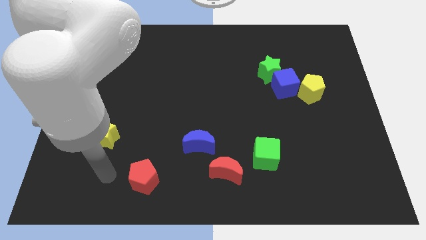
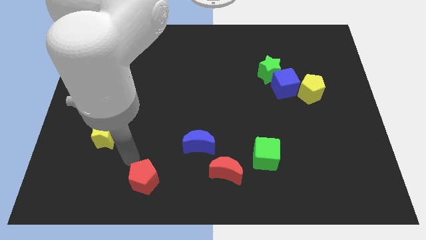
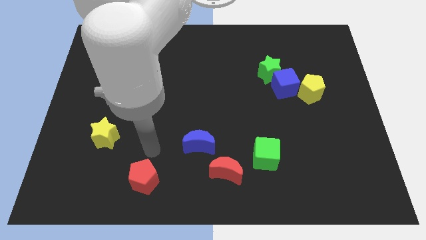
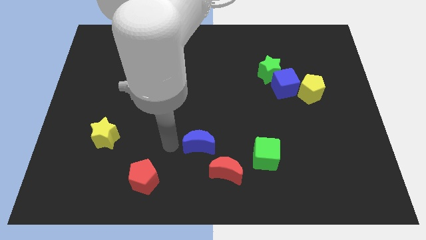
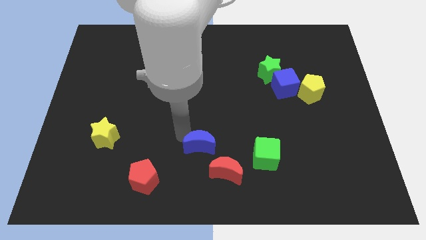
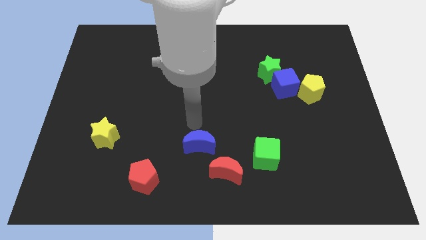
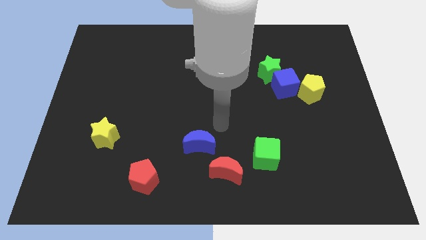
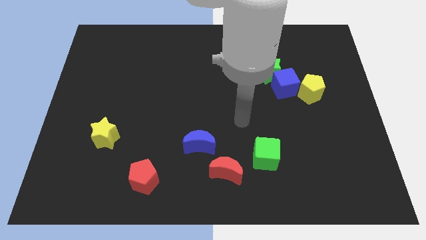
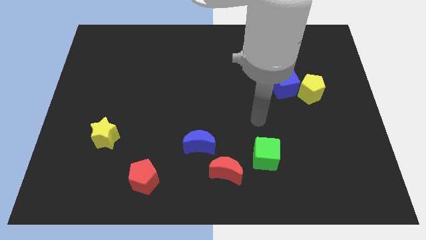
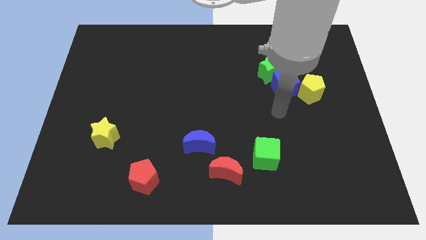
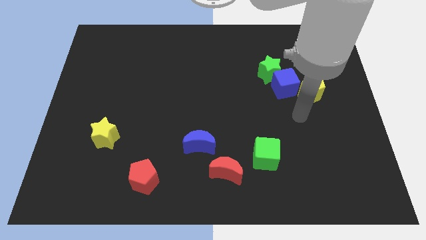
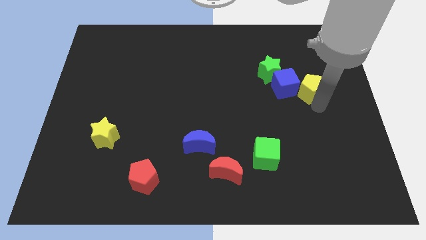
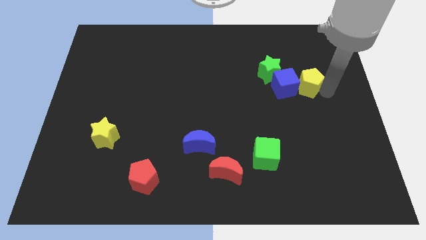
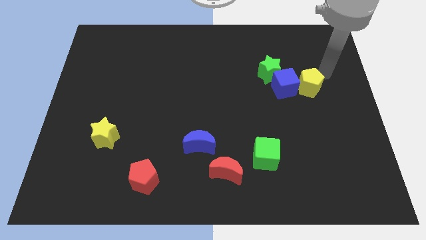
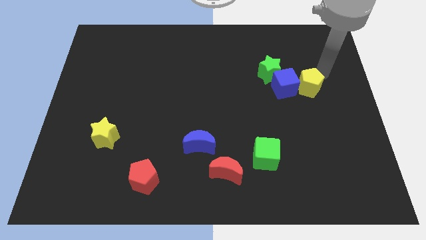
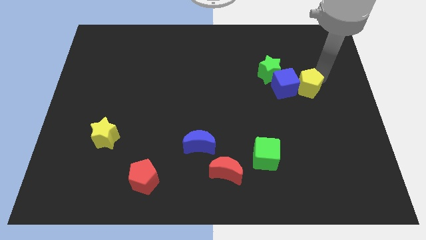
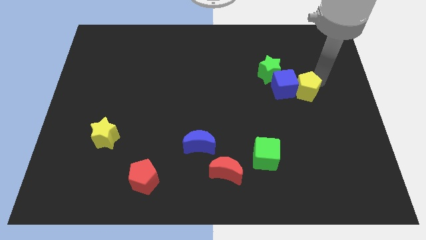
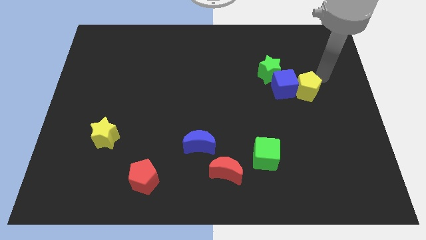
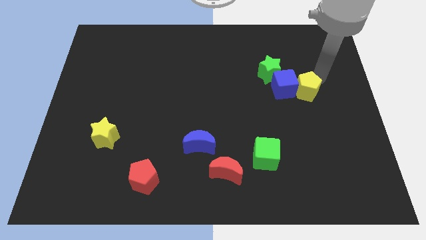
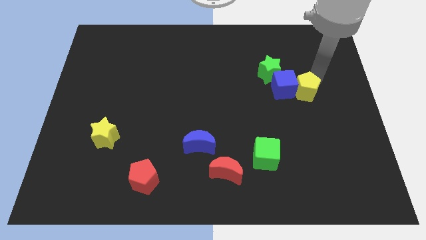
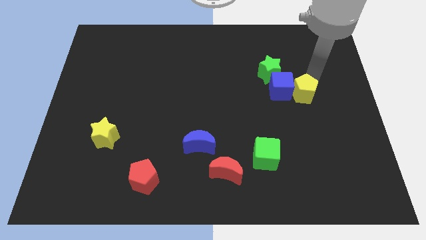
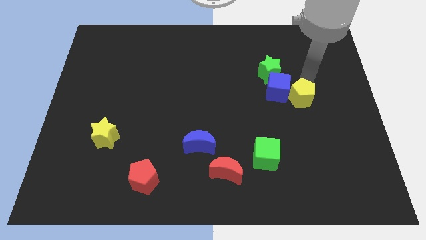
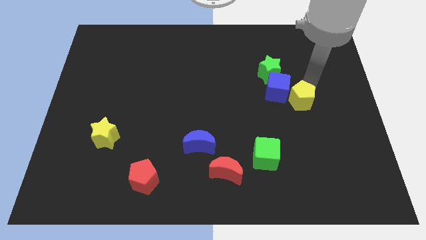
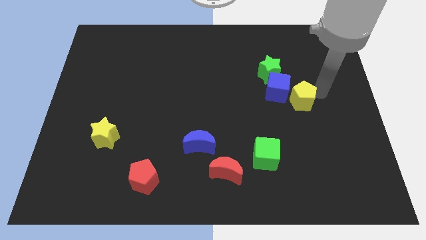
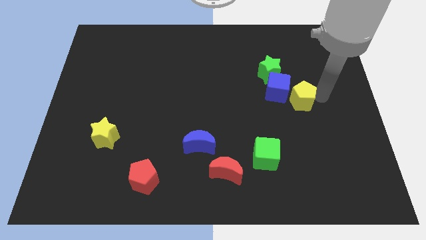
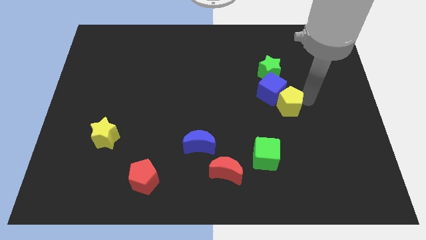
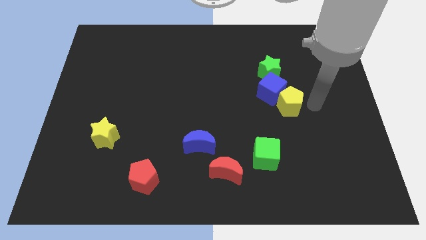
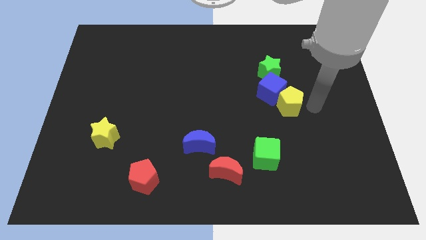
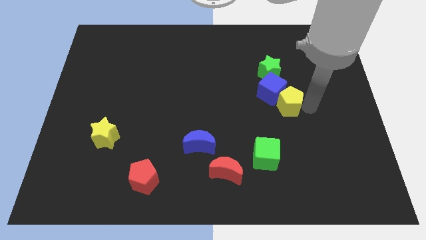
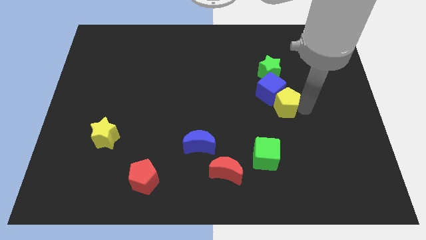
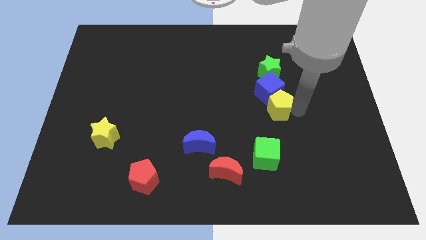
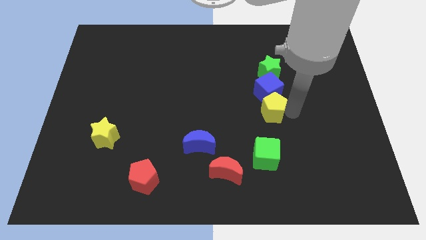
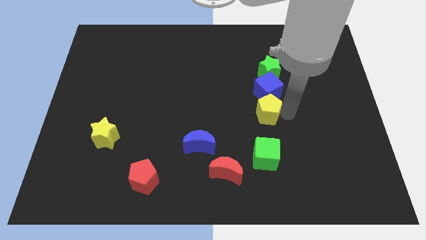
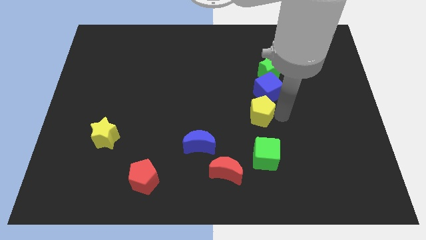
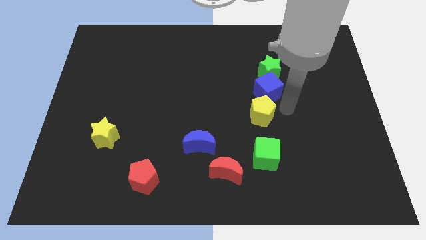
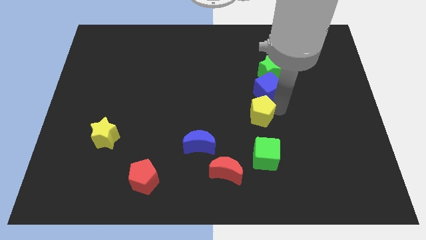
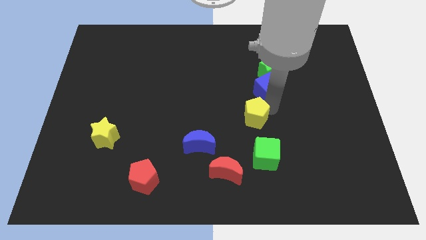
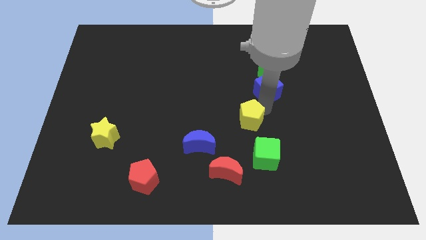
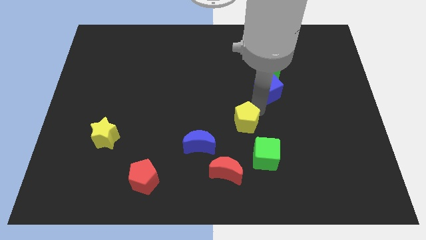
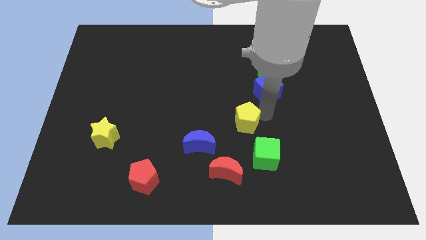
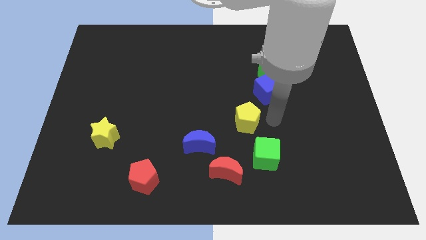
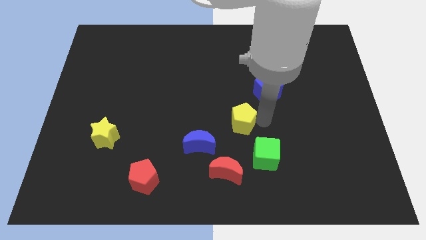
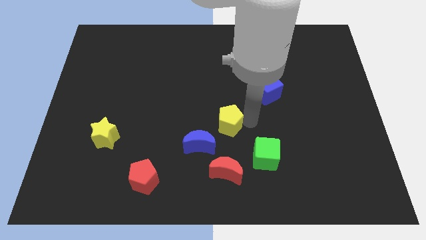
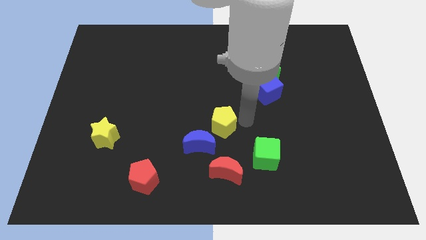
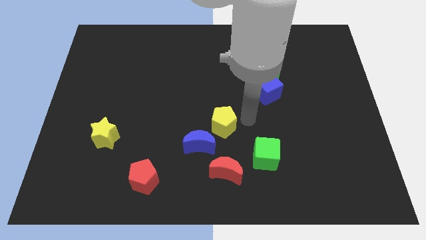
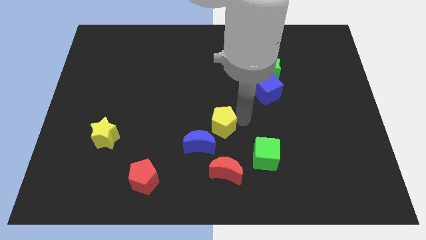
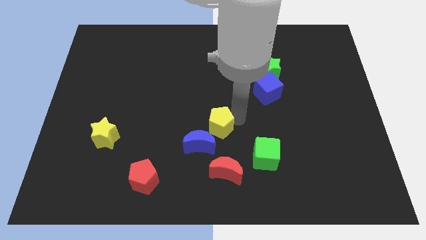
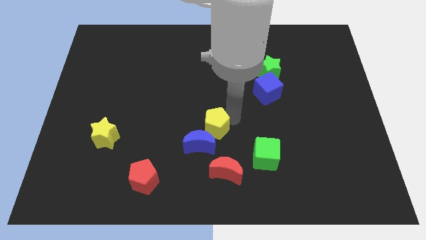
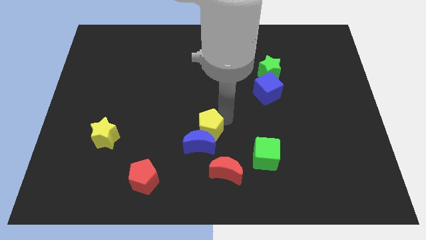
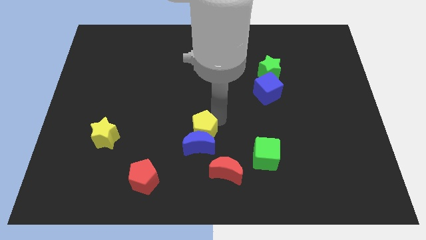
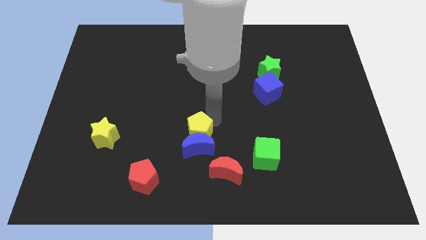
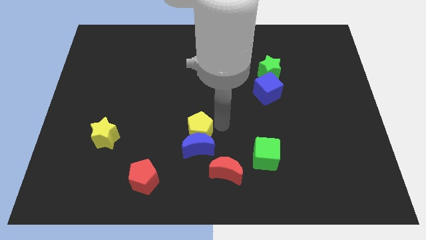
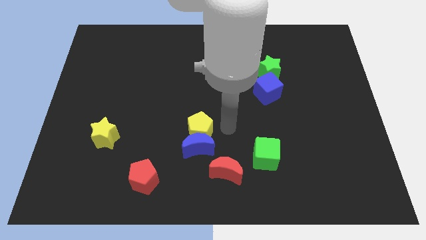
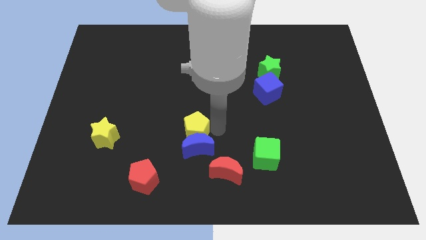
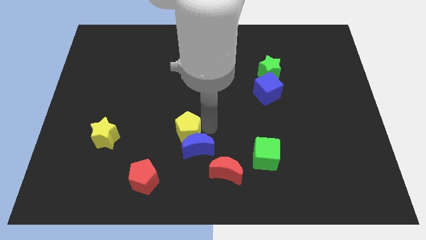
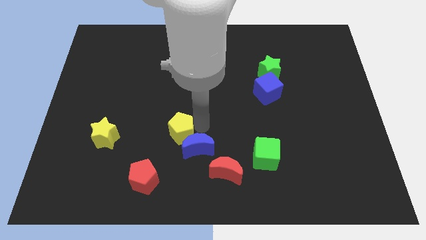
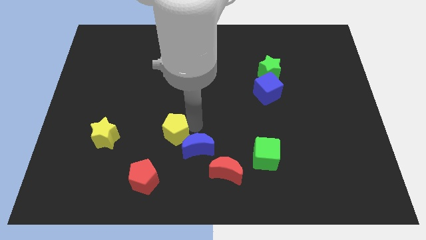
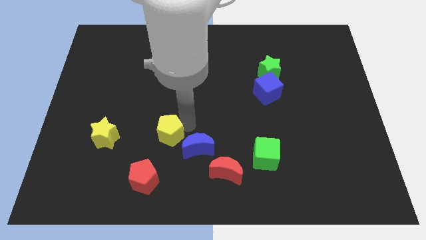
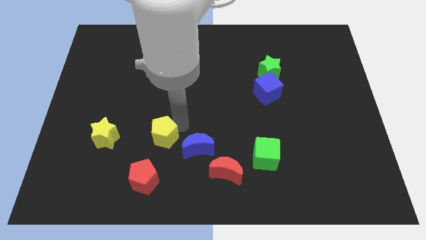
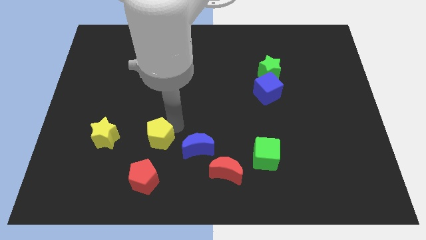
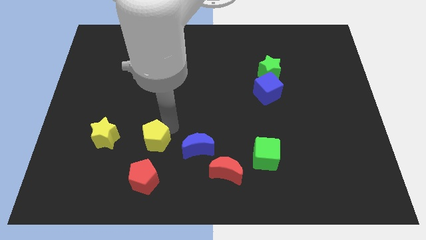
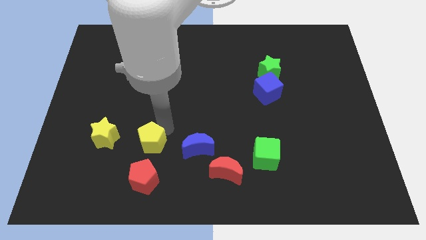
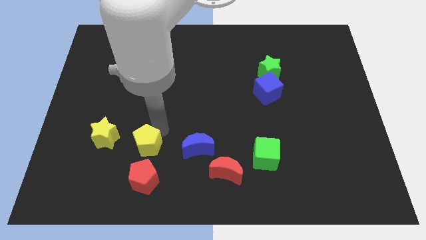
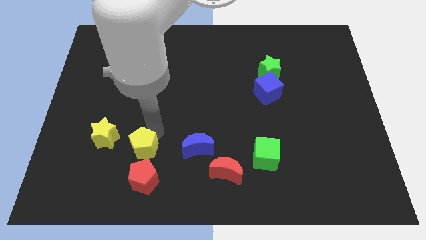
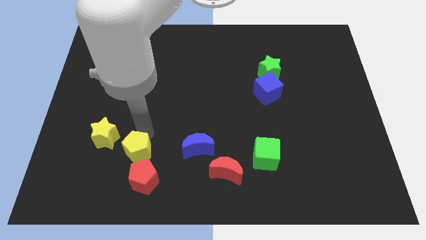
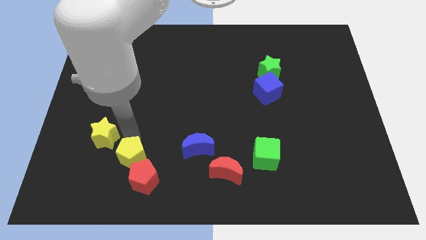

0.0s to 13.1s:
push the yellow pentagon next to the red pentagon
